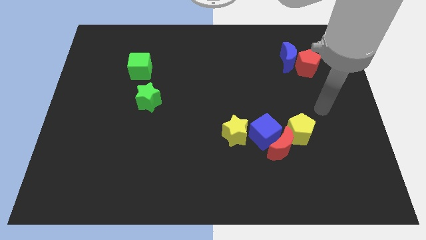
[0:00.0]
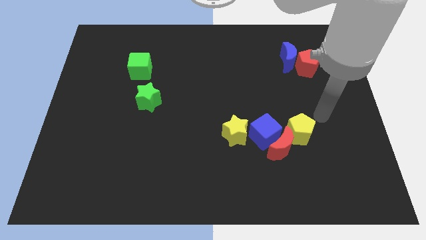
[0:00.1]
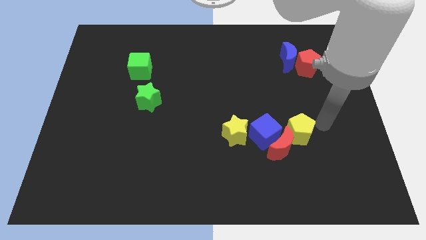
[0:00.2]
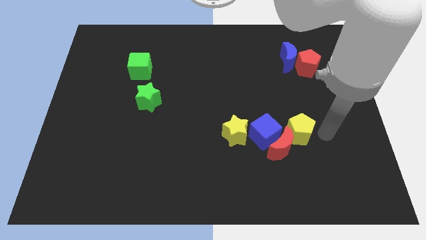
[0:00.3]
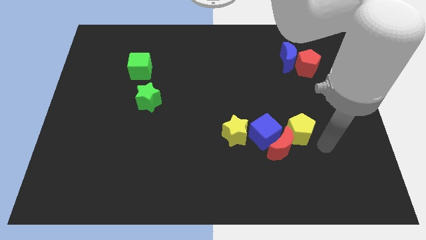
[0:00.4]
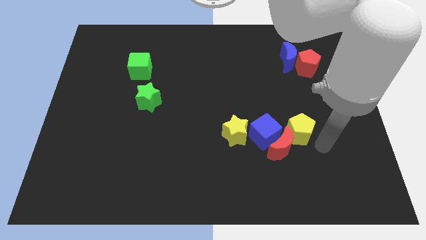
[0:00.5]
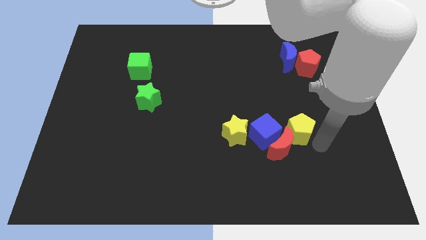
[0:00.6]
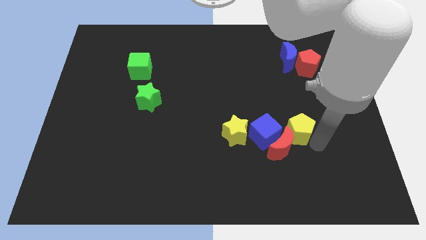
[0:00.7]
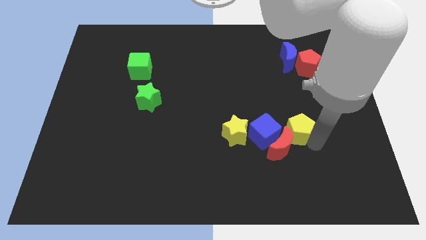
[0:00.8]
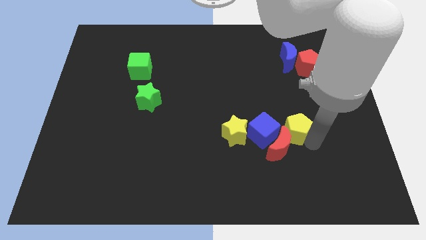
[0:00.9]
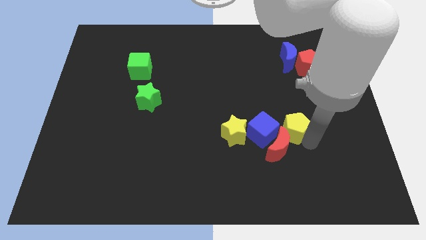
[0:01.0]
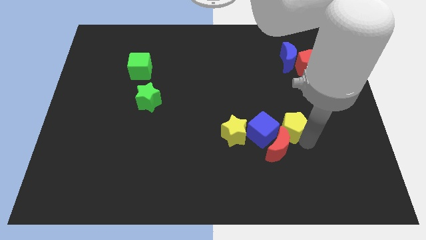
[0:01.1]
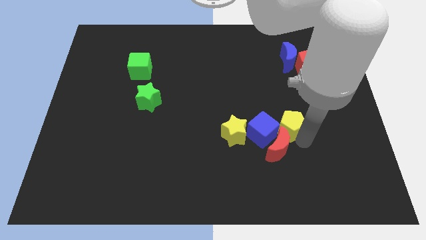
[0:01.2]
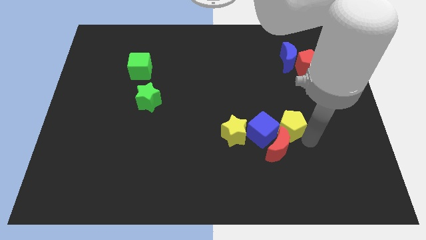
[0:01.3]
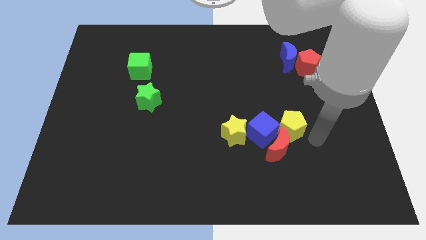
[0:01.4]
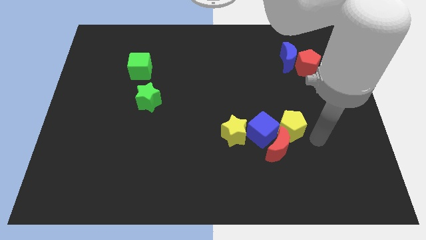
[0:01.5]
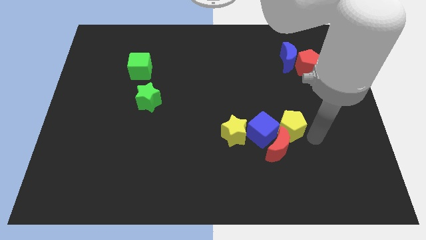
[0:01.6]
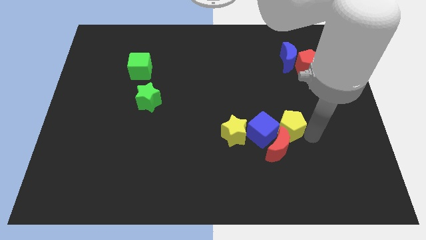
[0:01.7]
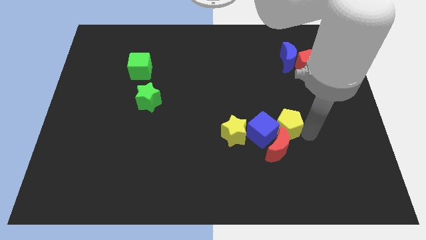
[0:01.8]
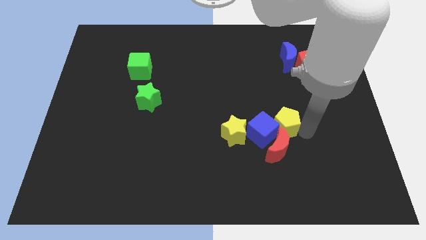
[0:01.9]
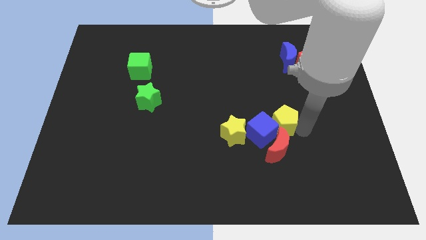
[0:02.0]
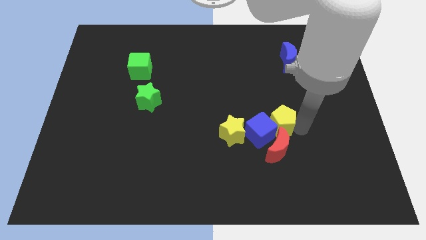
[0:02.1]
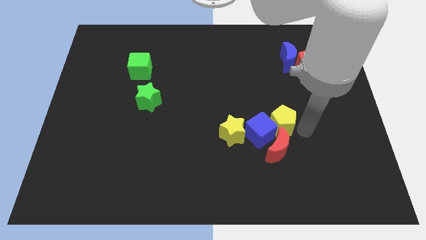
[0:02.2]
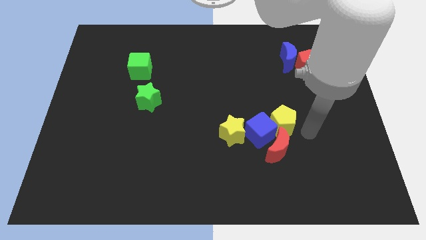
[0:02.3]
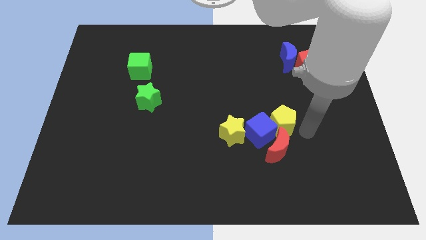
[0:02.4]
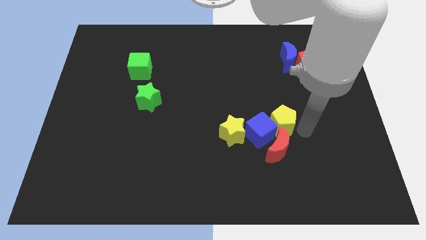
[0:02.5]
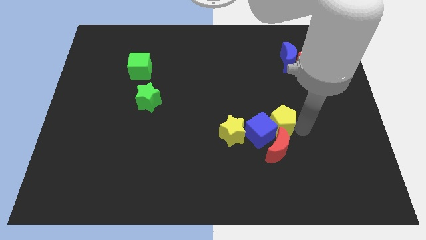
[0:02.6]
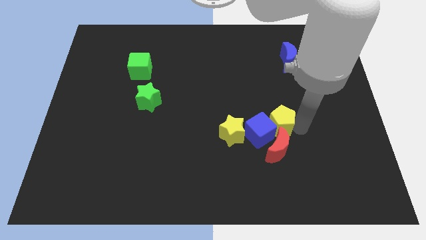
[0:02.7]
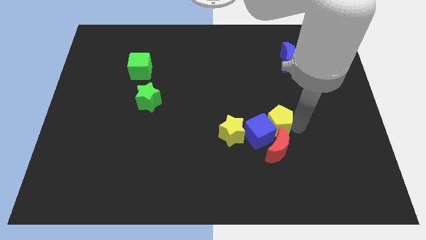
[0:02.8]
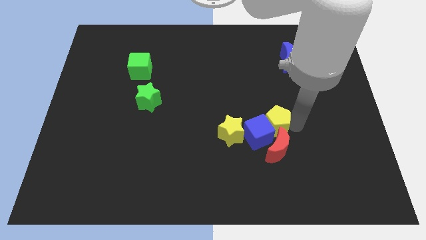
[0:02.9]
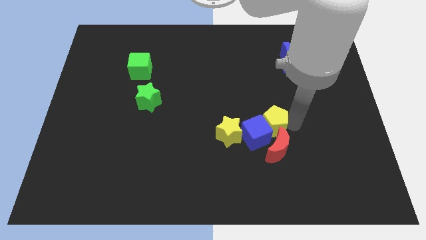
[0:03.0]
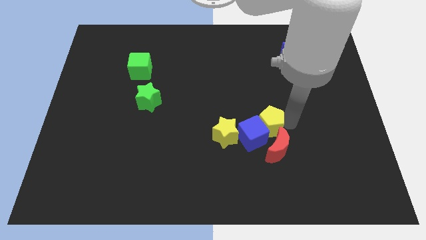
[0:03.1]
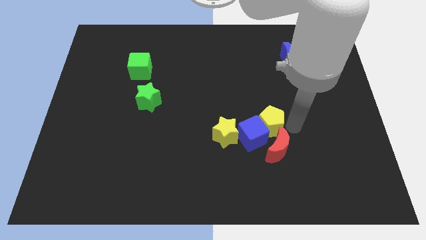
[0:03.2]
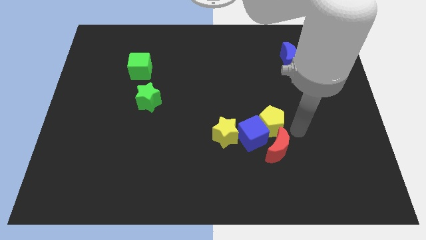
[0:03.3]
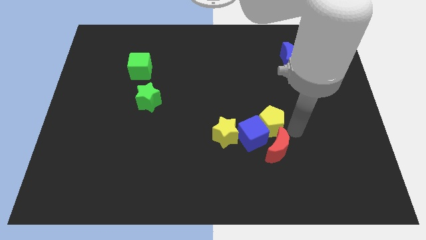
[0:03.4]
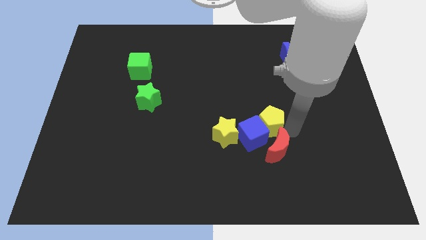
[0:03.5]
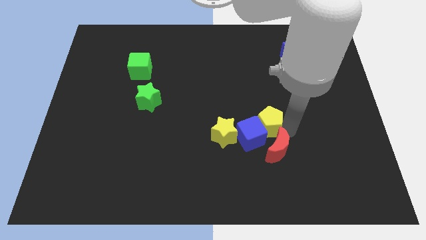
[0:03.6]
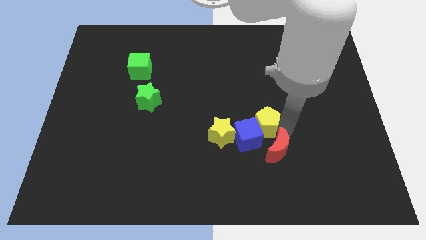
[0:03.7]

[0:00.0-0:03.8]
move the yellow pentagon slightly to the left

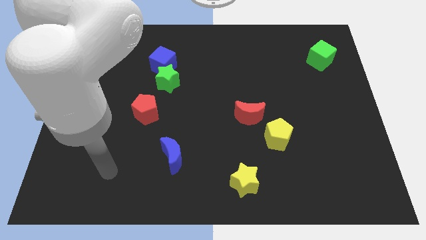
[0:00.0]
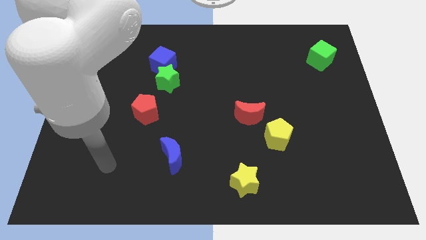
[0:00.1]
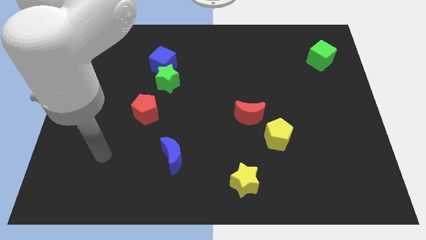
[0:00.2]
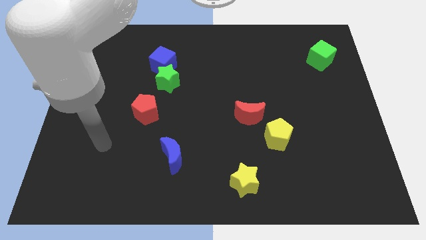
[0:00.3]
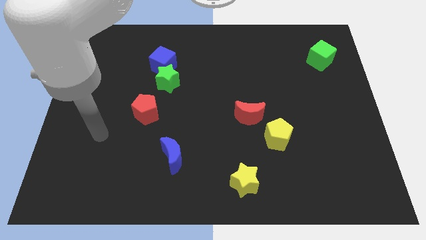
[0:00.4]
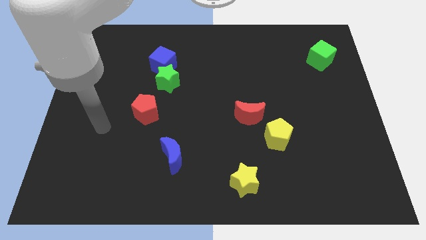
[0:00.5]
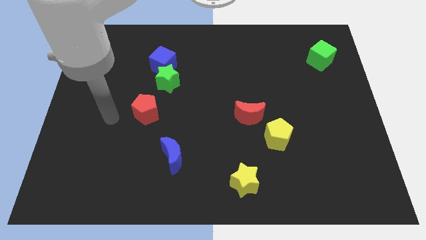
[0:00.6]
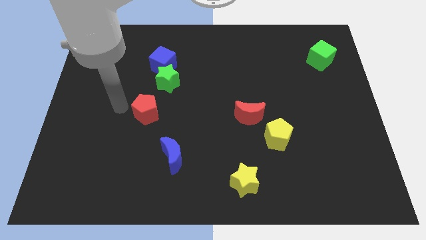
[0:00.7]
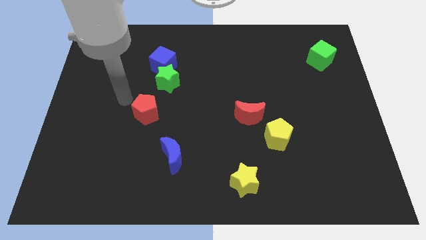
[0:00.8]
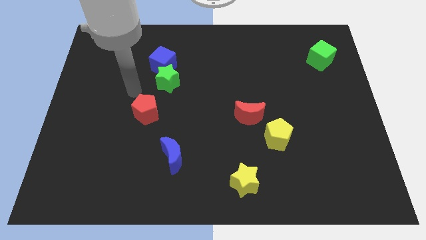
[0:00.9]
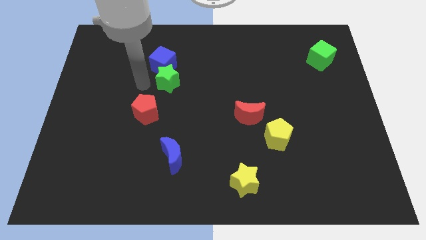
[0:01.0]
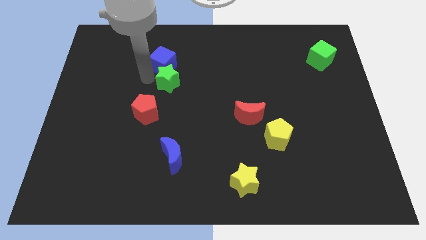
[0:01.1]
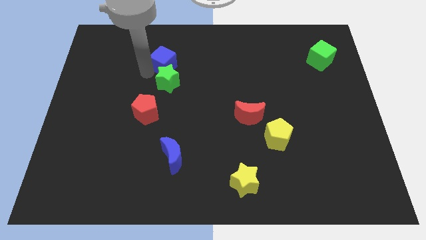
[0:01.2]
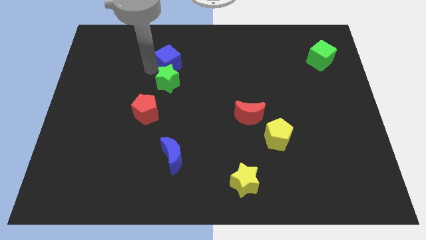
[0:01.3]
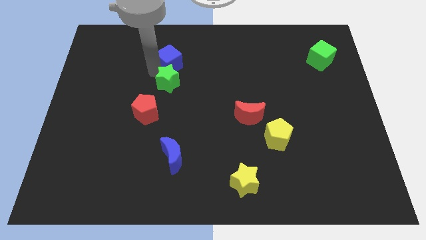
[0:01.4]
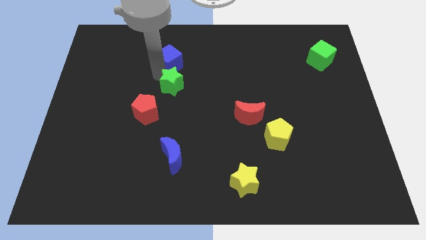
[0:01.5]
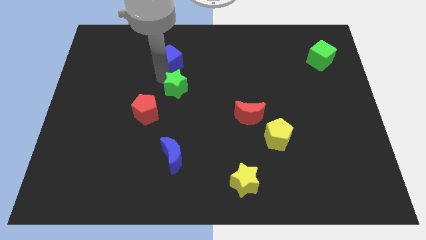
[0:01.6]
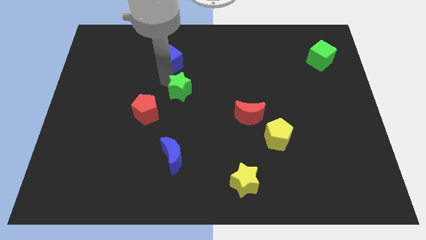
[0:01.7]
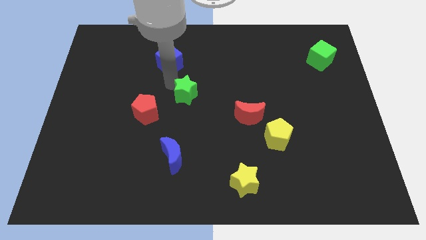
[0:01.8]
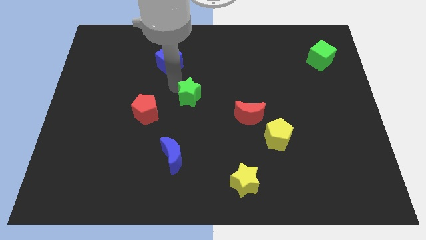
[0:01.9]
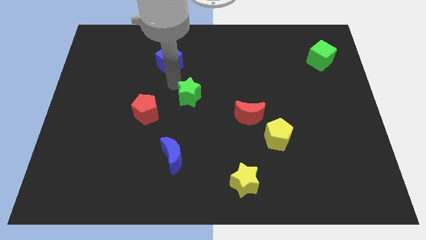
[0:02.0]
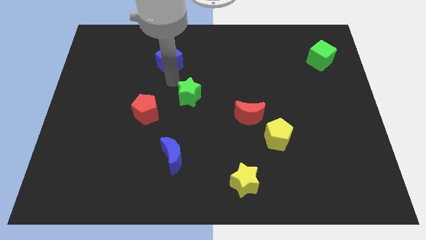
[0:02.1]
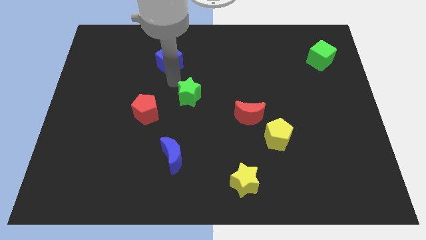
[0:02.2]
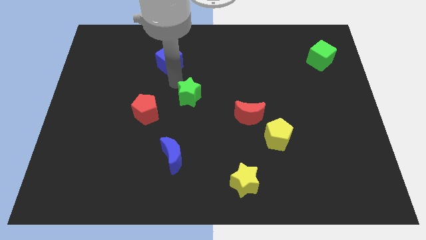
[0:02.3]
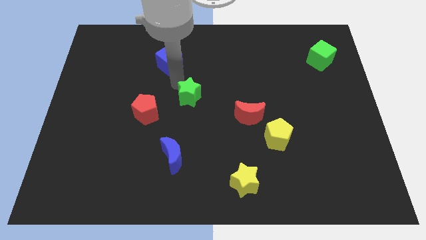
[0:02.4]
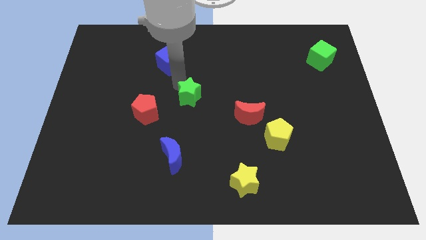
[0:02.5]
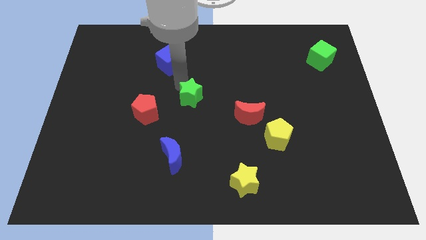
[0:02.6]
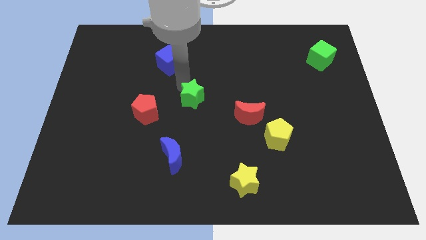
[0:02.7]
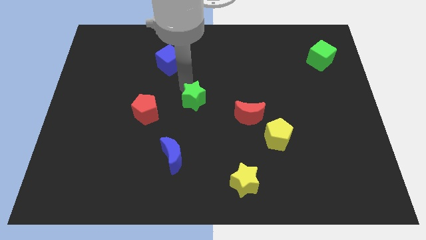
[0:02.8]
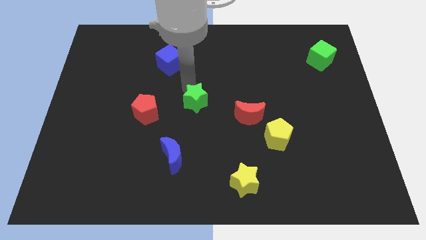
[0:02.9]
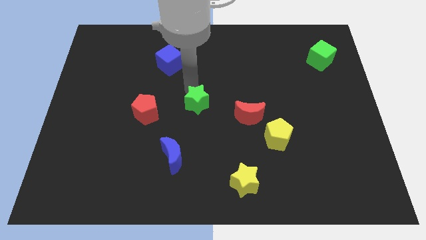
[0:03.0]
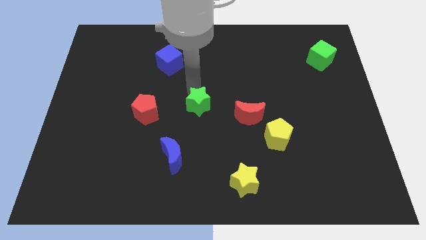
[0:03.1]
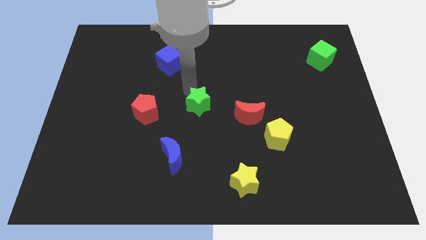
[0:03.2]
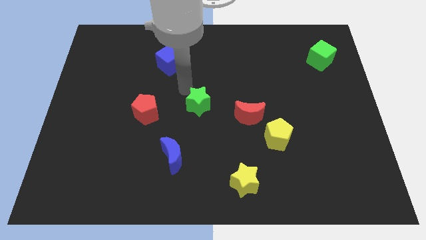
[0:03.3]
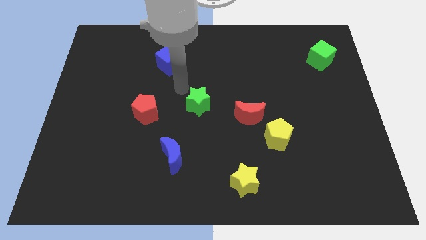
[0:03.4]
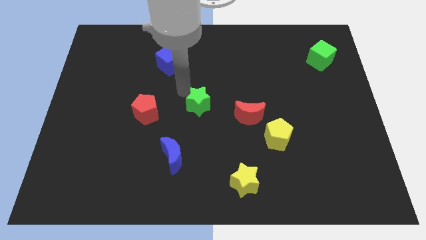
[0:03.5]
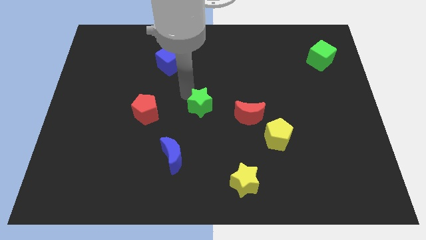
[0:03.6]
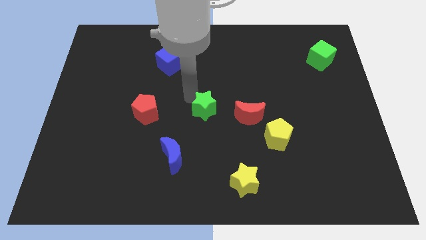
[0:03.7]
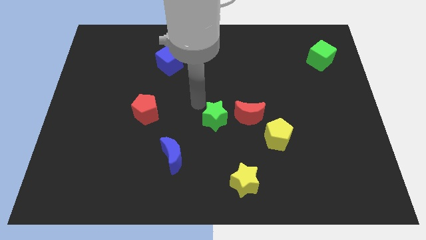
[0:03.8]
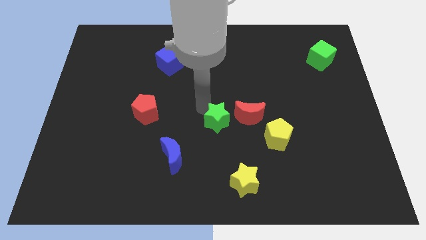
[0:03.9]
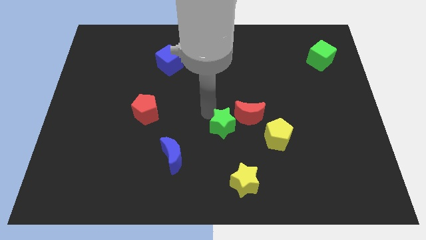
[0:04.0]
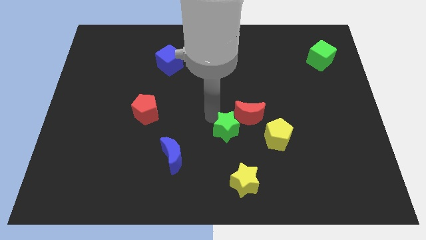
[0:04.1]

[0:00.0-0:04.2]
push the green star downwards and to the right

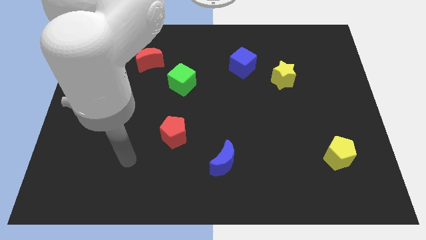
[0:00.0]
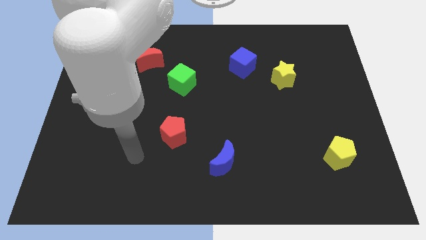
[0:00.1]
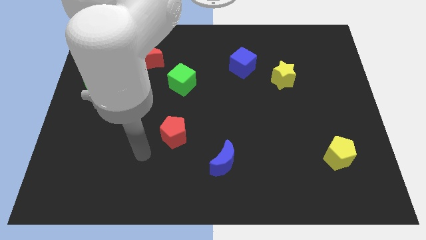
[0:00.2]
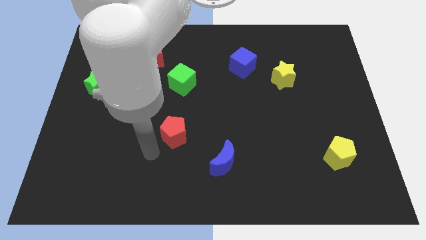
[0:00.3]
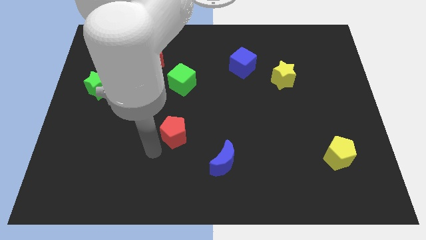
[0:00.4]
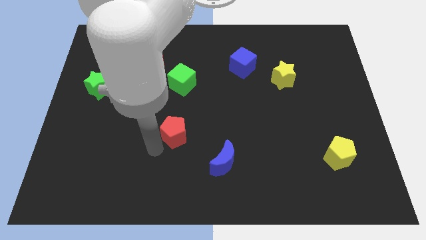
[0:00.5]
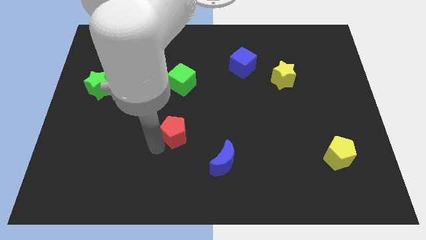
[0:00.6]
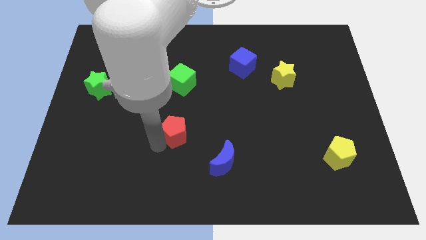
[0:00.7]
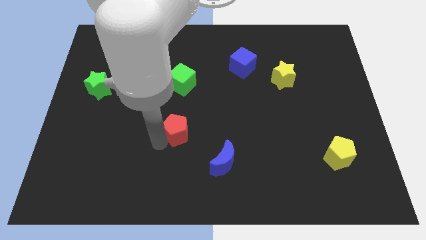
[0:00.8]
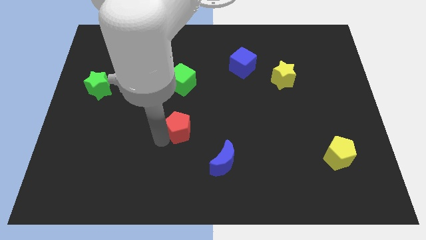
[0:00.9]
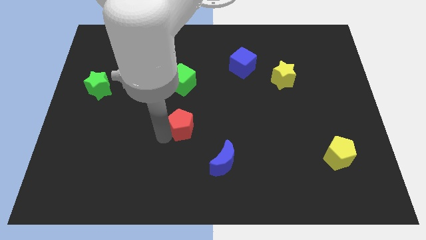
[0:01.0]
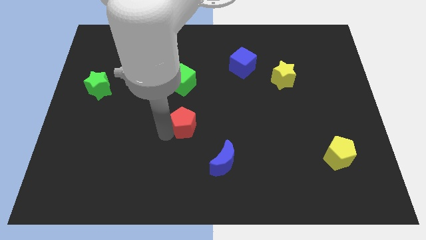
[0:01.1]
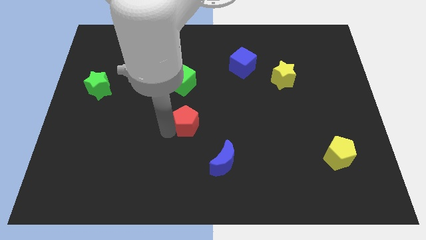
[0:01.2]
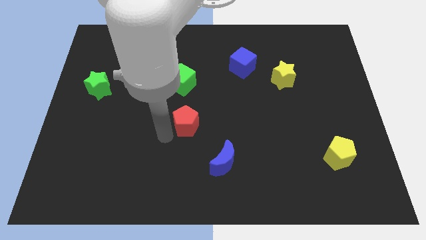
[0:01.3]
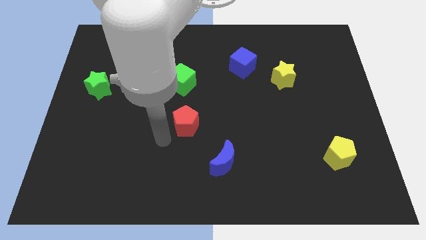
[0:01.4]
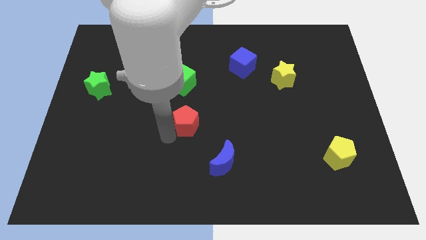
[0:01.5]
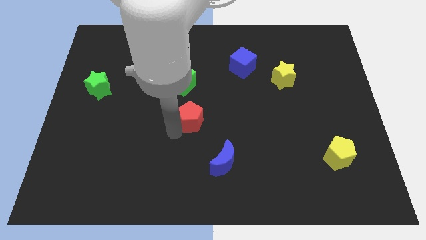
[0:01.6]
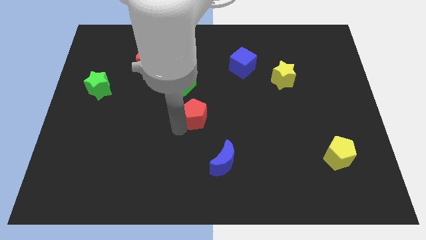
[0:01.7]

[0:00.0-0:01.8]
move the red pentagon slightly up and to the right
